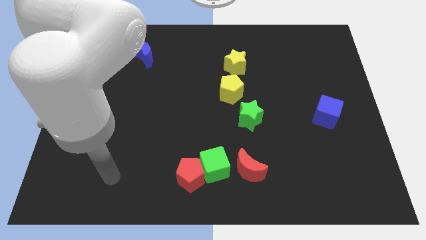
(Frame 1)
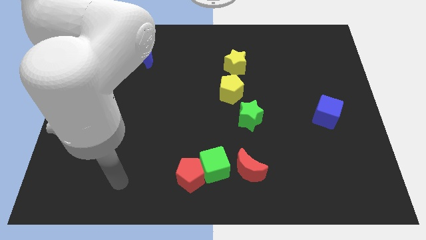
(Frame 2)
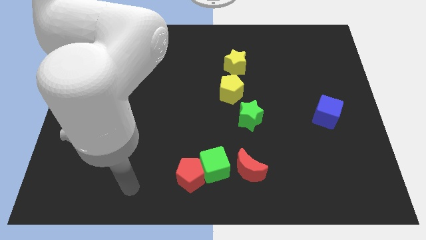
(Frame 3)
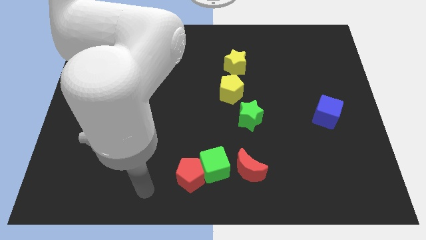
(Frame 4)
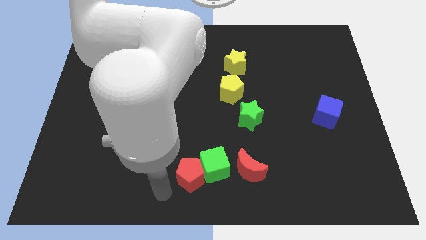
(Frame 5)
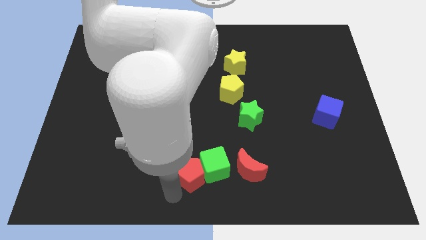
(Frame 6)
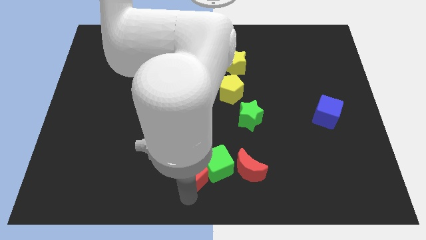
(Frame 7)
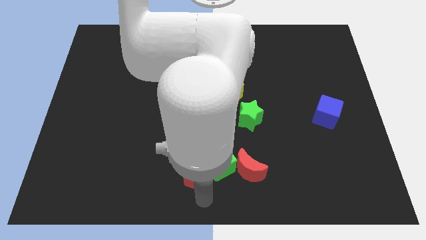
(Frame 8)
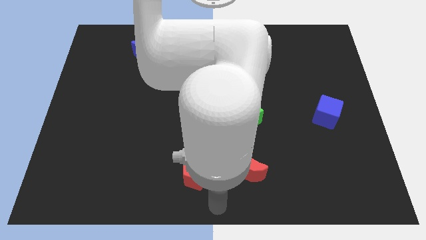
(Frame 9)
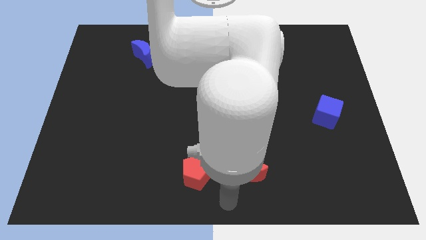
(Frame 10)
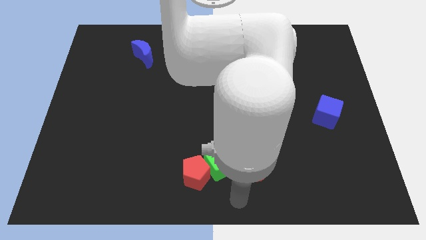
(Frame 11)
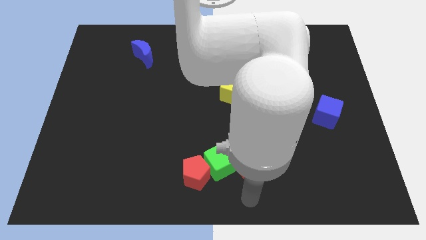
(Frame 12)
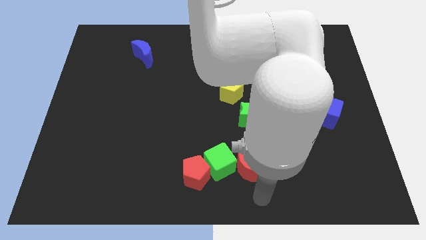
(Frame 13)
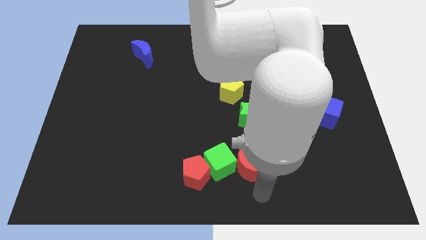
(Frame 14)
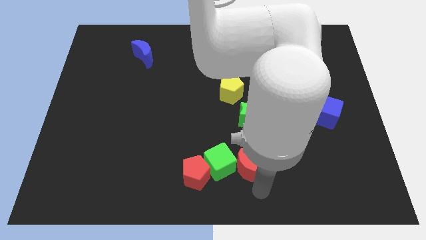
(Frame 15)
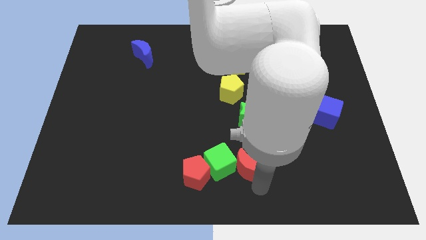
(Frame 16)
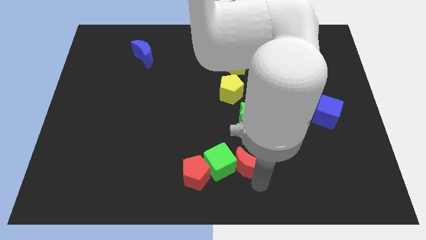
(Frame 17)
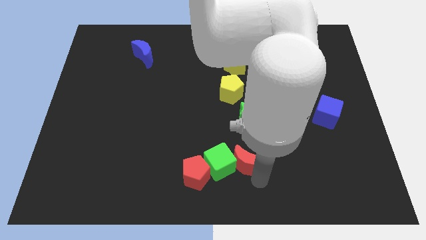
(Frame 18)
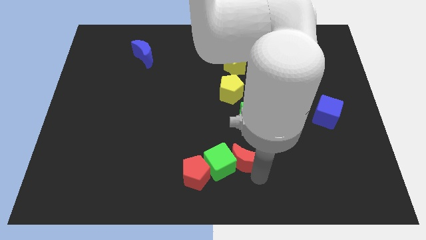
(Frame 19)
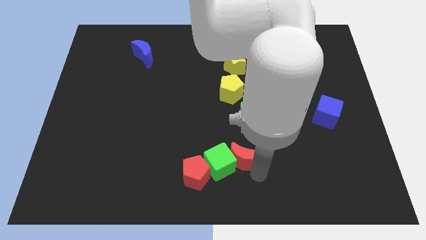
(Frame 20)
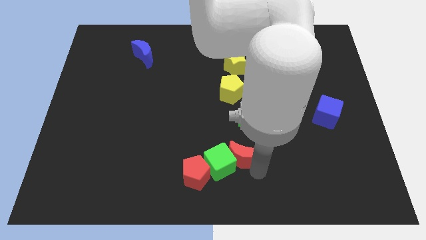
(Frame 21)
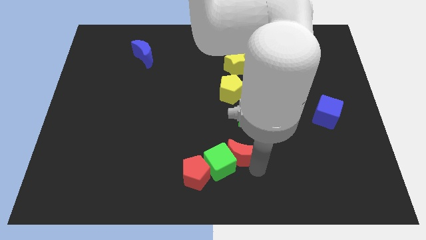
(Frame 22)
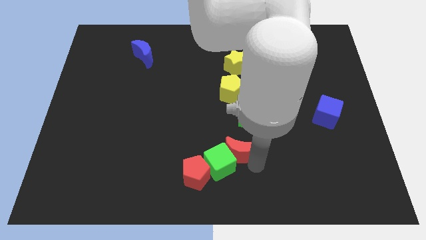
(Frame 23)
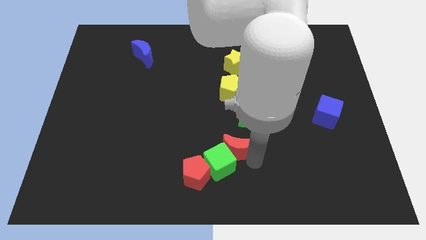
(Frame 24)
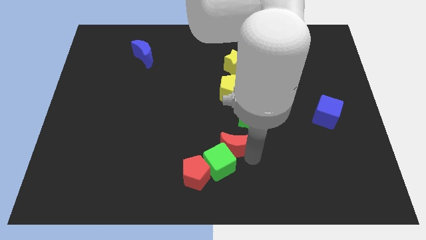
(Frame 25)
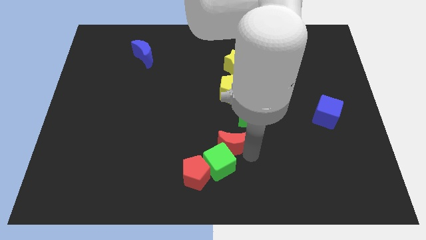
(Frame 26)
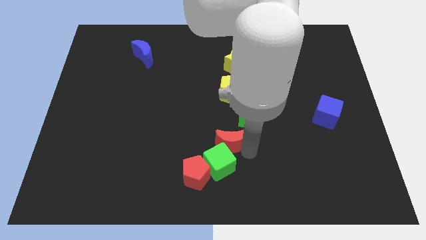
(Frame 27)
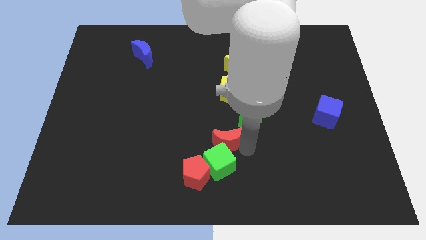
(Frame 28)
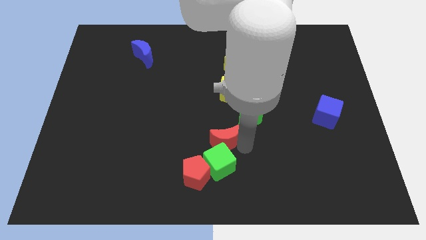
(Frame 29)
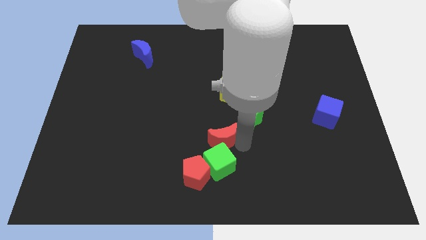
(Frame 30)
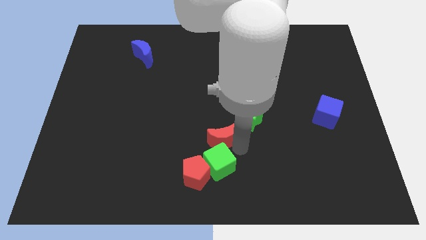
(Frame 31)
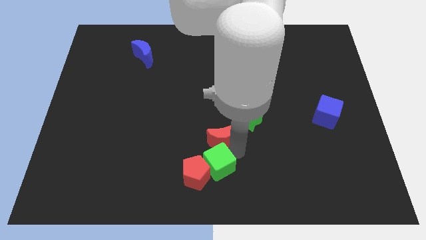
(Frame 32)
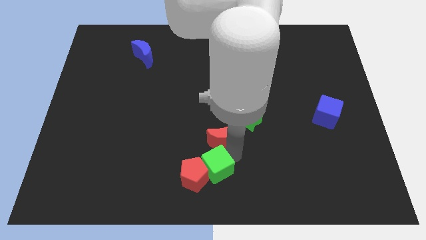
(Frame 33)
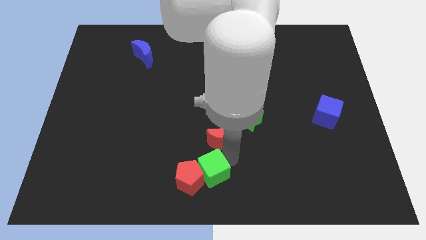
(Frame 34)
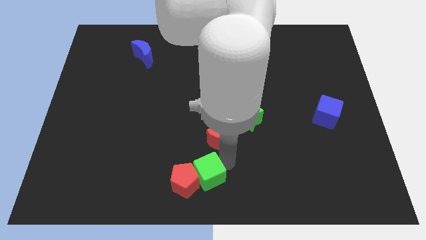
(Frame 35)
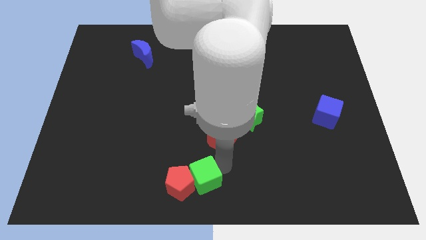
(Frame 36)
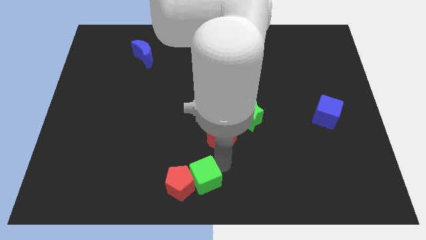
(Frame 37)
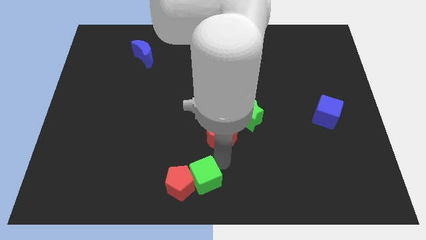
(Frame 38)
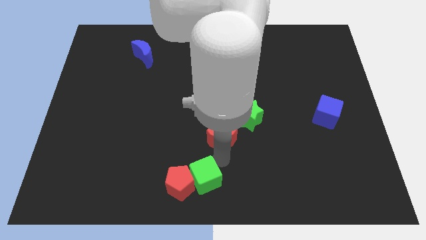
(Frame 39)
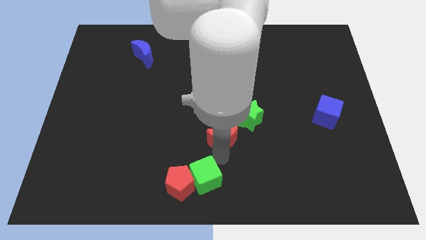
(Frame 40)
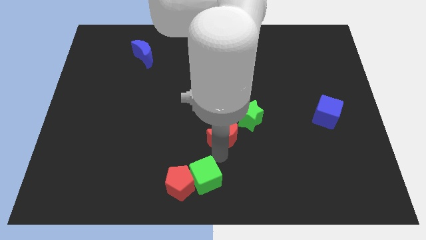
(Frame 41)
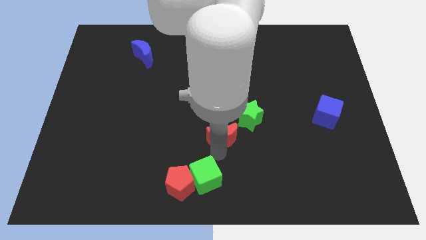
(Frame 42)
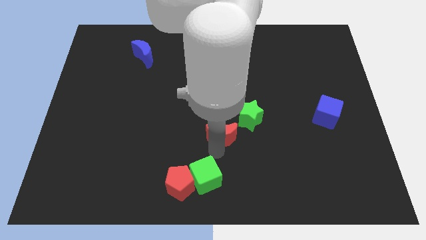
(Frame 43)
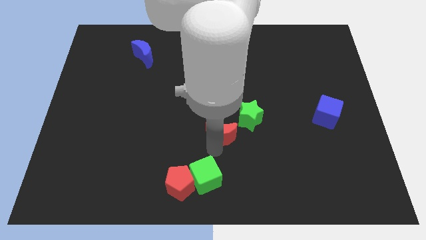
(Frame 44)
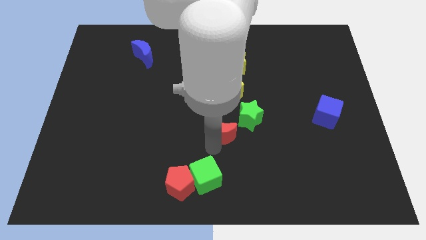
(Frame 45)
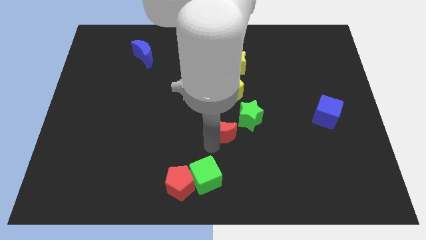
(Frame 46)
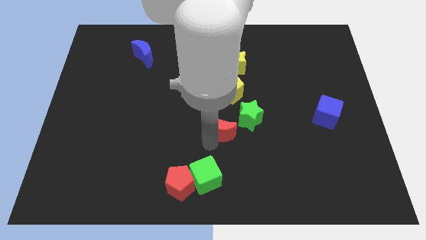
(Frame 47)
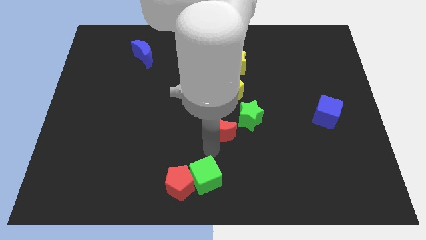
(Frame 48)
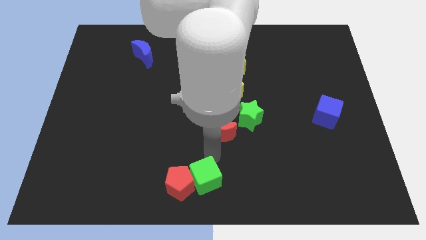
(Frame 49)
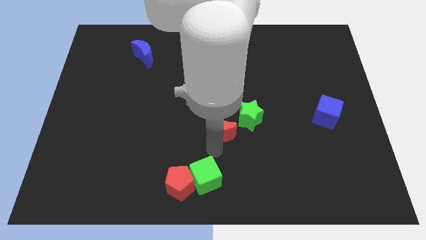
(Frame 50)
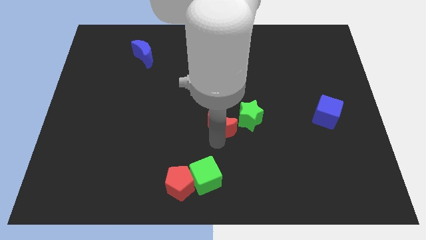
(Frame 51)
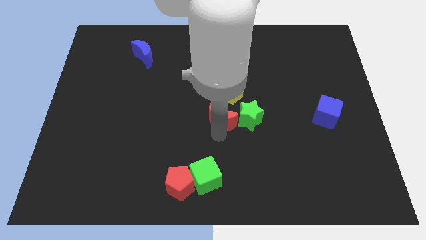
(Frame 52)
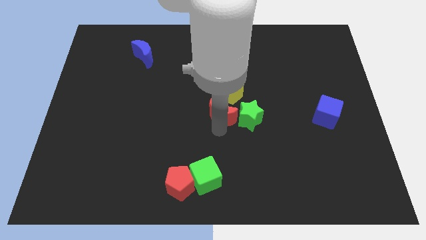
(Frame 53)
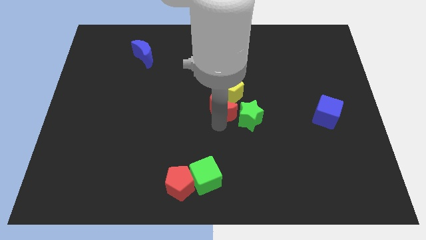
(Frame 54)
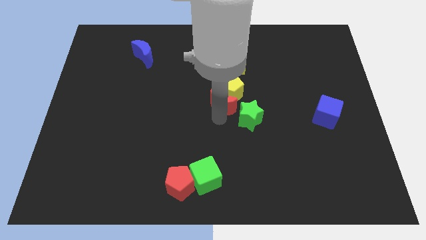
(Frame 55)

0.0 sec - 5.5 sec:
slide the red moon close to the yellow pentagon

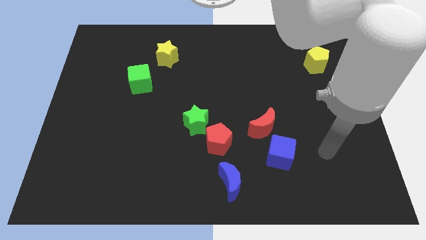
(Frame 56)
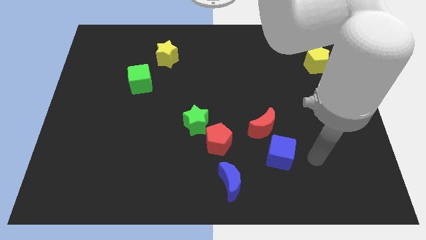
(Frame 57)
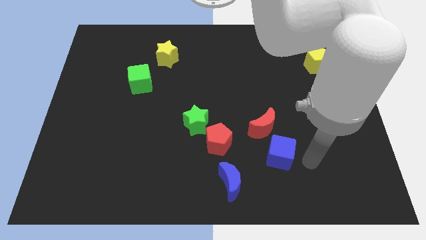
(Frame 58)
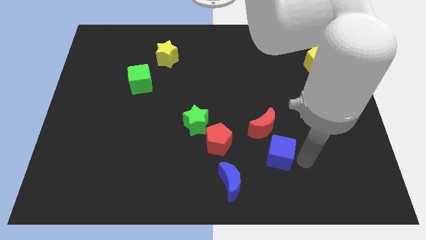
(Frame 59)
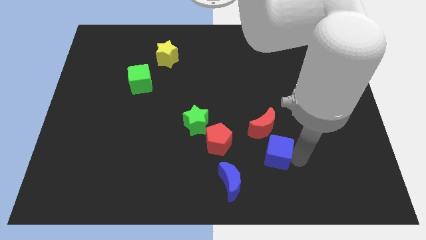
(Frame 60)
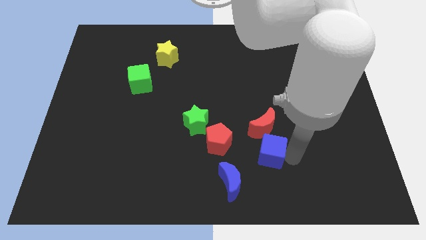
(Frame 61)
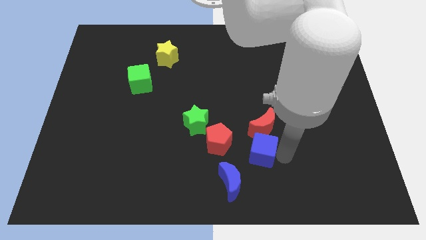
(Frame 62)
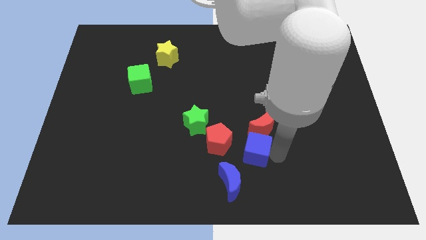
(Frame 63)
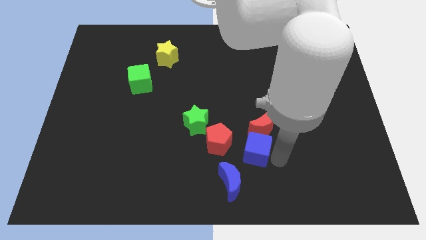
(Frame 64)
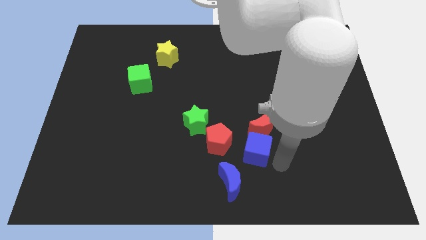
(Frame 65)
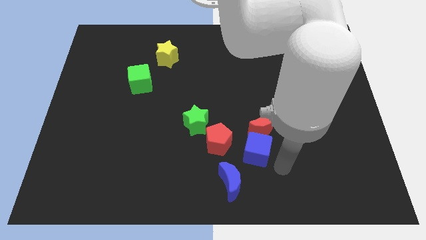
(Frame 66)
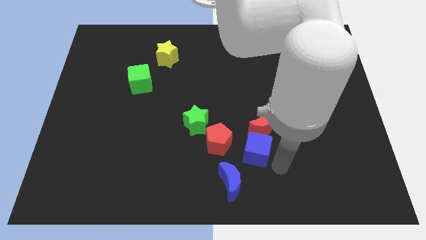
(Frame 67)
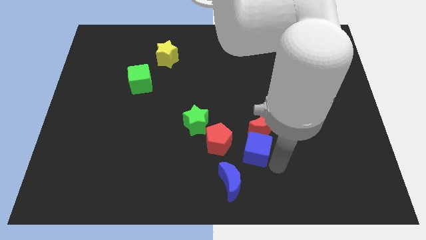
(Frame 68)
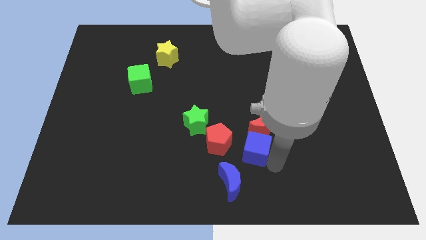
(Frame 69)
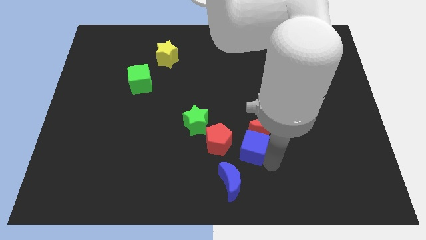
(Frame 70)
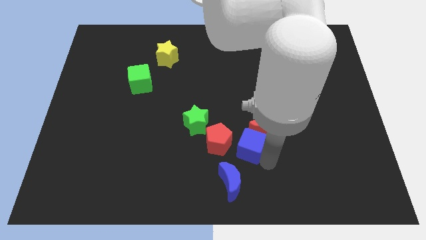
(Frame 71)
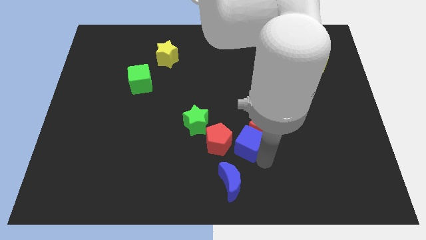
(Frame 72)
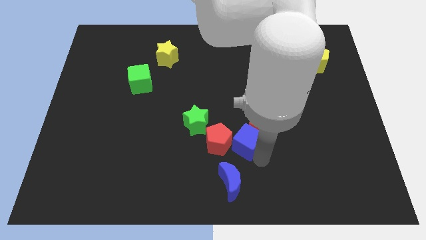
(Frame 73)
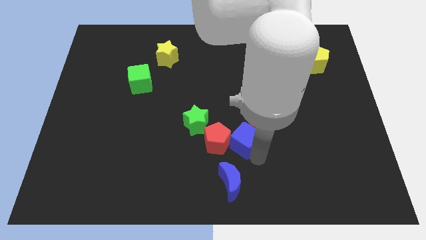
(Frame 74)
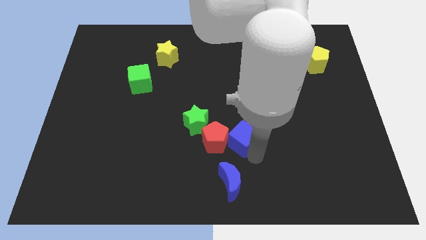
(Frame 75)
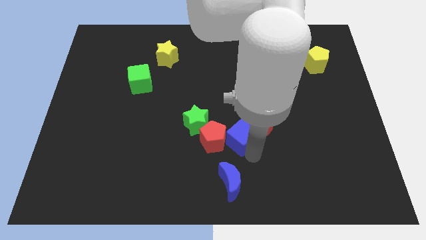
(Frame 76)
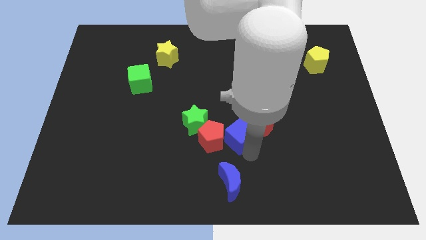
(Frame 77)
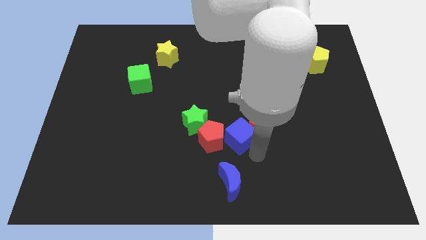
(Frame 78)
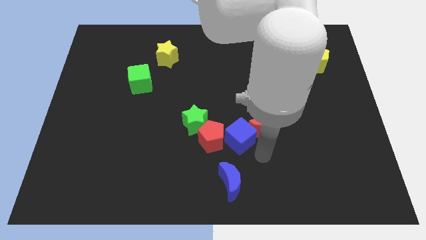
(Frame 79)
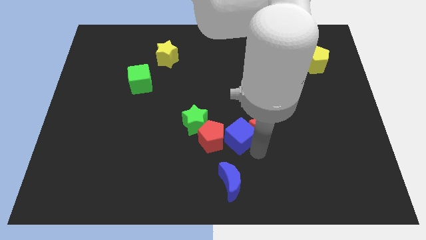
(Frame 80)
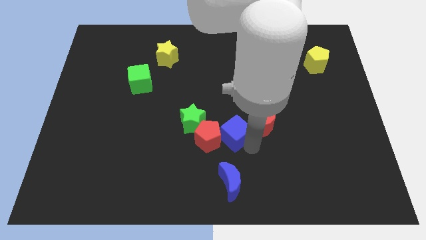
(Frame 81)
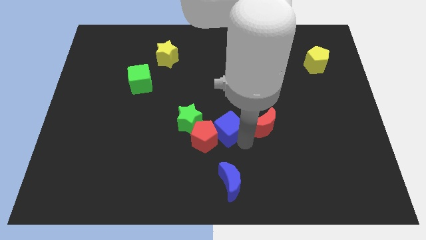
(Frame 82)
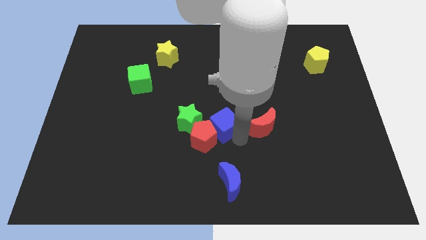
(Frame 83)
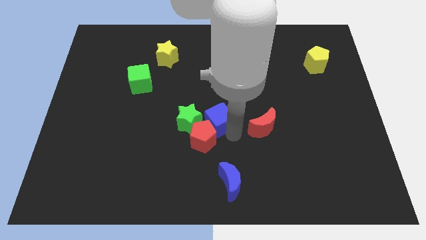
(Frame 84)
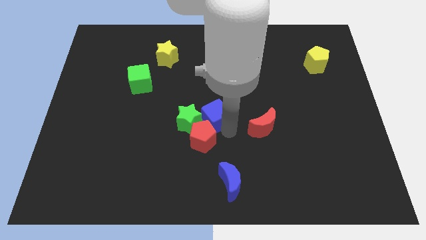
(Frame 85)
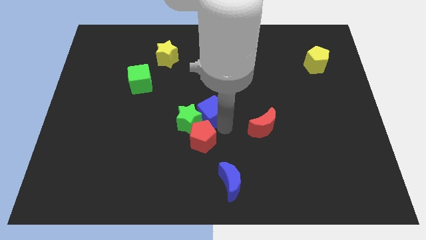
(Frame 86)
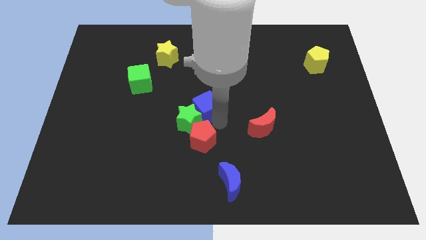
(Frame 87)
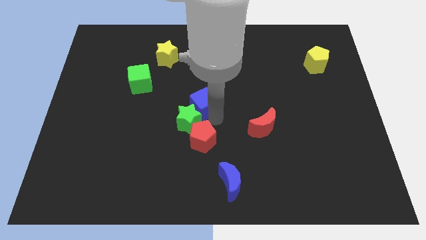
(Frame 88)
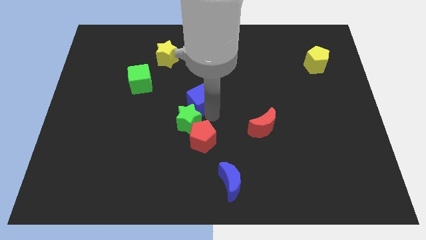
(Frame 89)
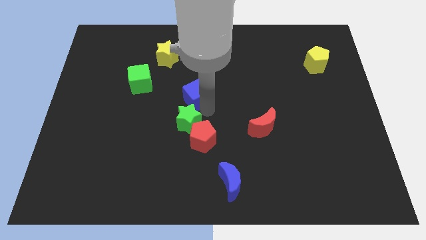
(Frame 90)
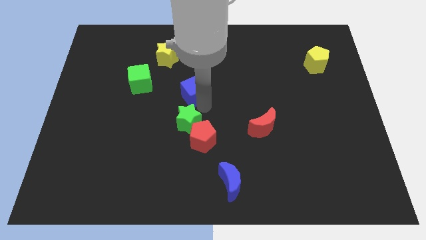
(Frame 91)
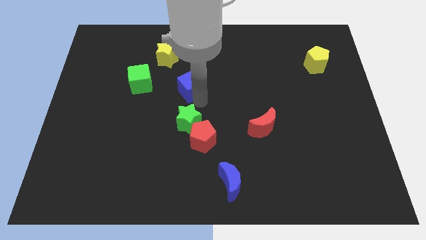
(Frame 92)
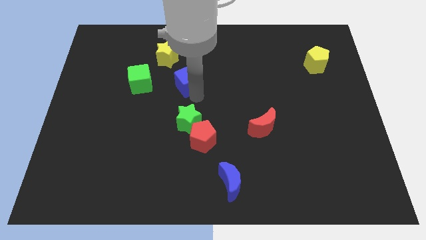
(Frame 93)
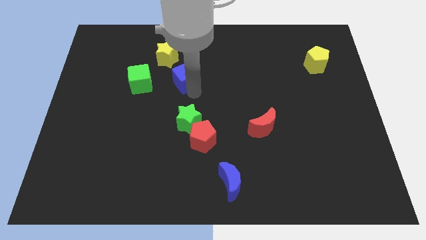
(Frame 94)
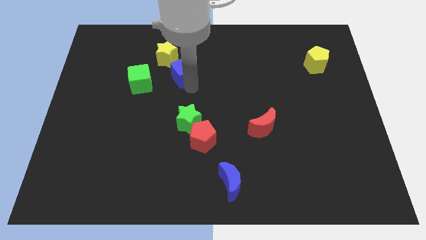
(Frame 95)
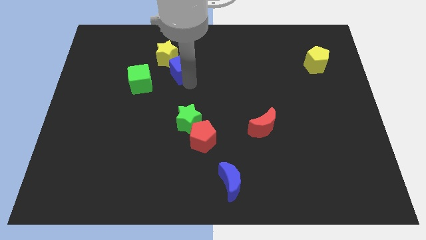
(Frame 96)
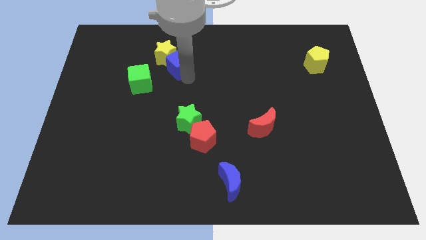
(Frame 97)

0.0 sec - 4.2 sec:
push the blue cube towards the yellow star
